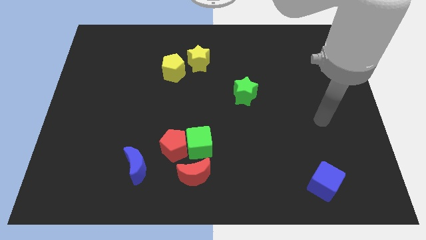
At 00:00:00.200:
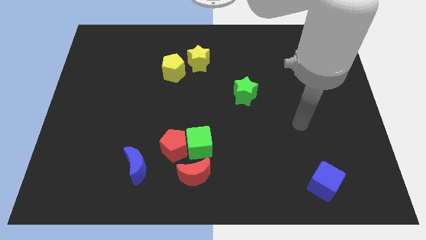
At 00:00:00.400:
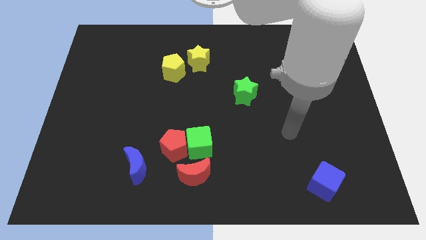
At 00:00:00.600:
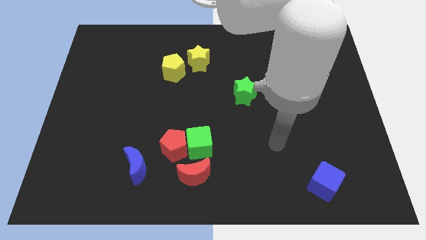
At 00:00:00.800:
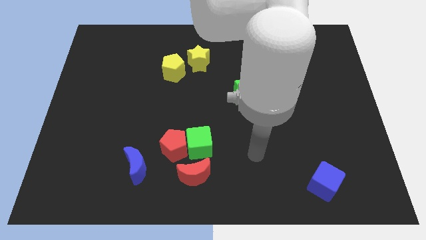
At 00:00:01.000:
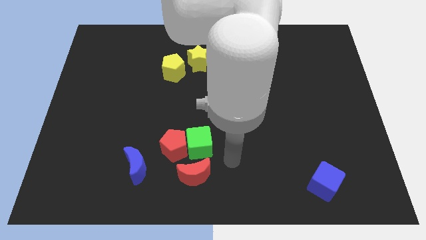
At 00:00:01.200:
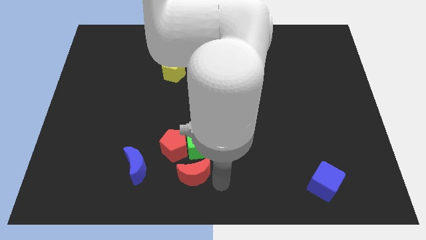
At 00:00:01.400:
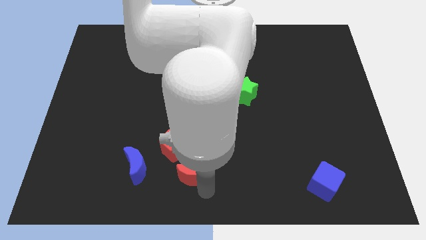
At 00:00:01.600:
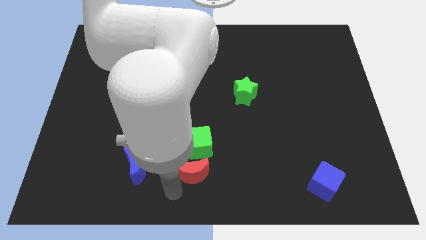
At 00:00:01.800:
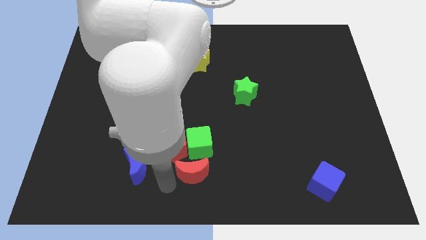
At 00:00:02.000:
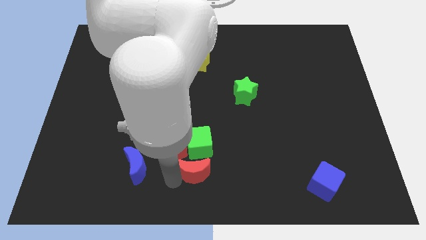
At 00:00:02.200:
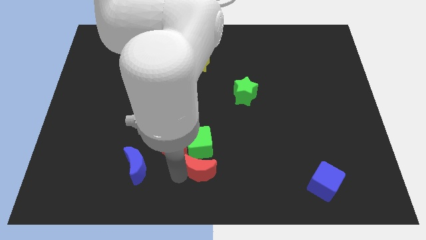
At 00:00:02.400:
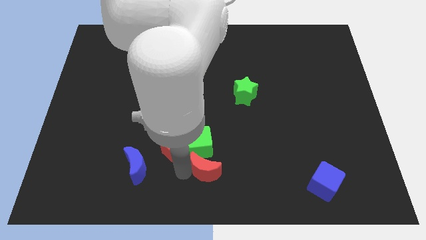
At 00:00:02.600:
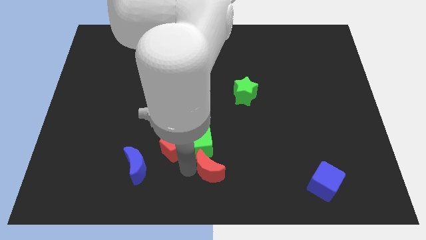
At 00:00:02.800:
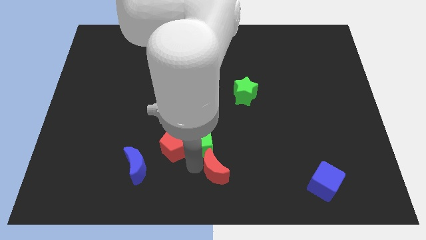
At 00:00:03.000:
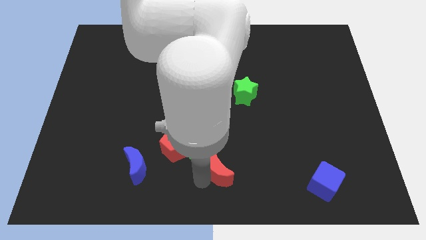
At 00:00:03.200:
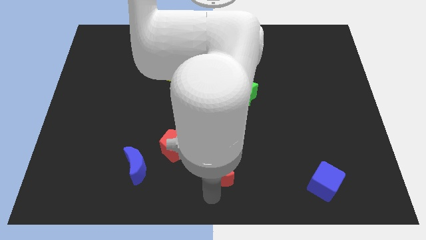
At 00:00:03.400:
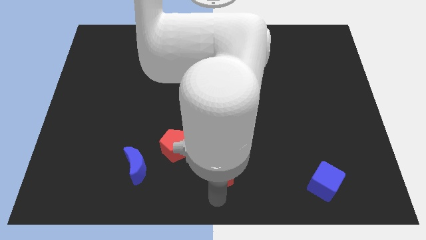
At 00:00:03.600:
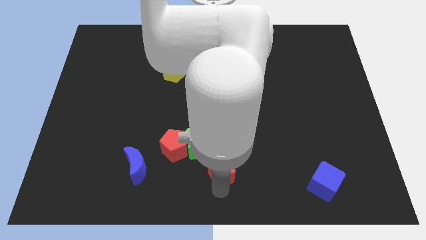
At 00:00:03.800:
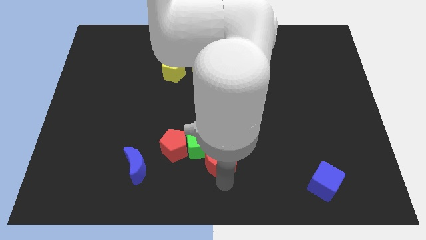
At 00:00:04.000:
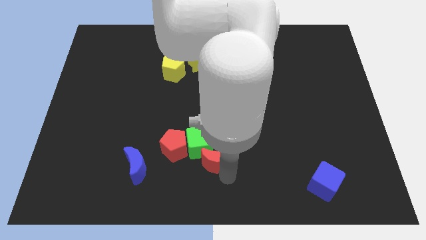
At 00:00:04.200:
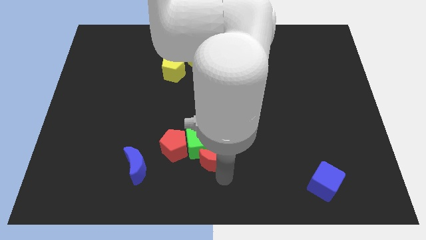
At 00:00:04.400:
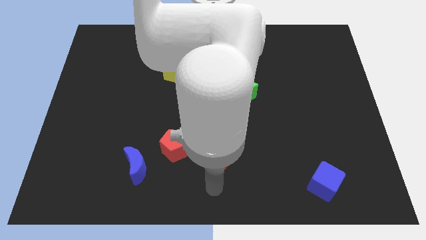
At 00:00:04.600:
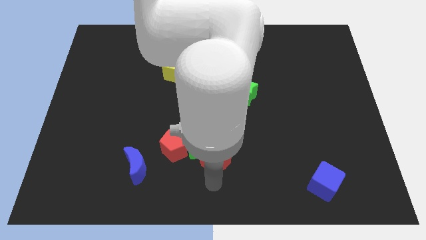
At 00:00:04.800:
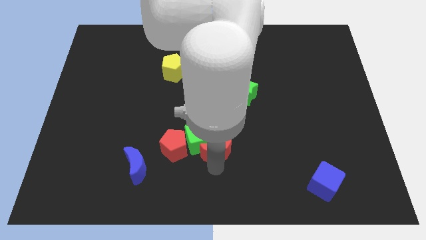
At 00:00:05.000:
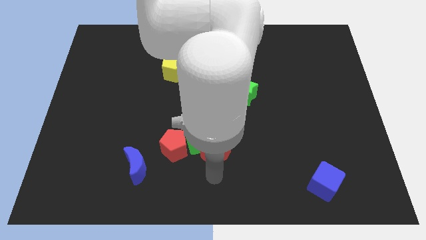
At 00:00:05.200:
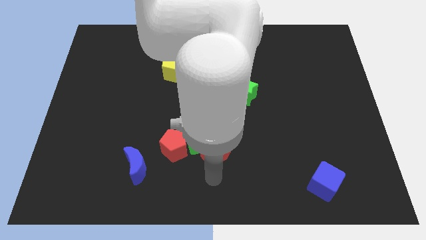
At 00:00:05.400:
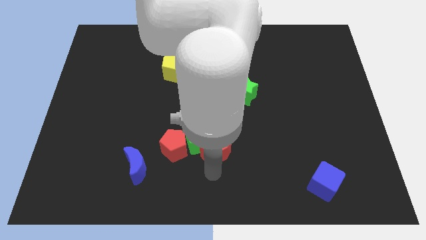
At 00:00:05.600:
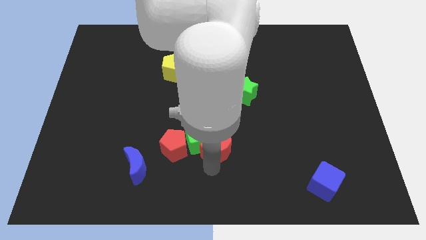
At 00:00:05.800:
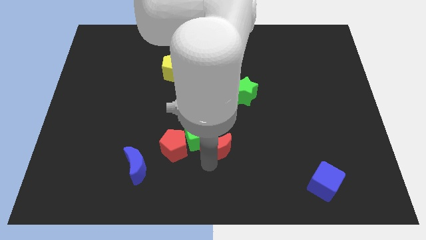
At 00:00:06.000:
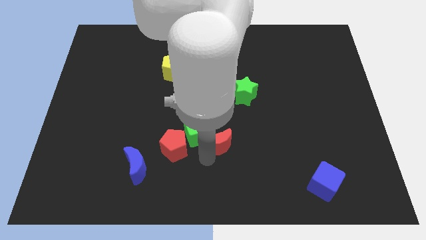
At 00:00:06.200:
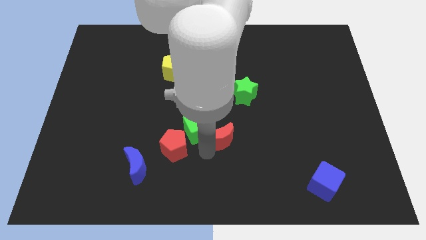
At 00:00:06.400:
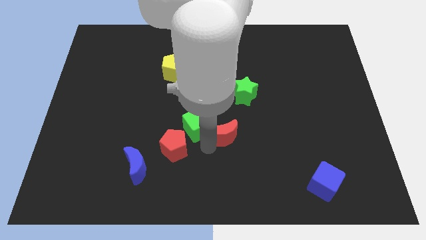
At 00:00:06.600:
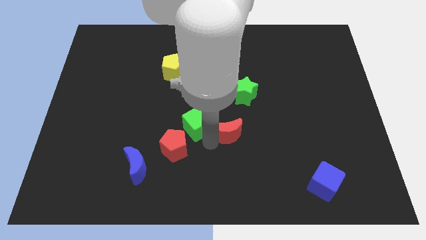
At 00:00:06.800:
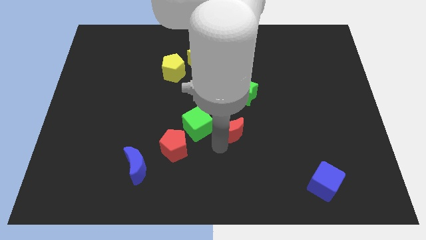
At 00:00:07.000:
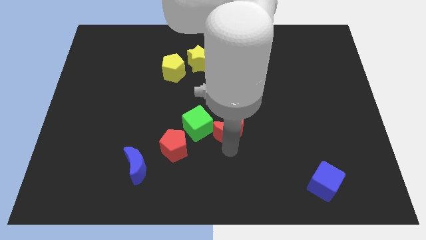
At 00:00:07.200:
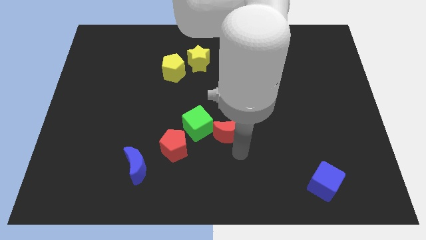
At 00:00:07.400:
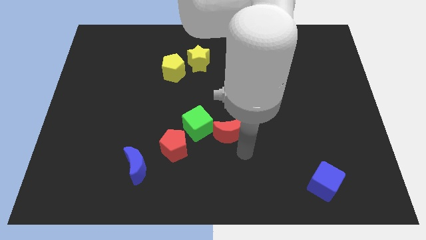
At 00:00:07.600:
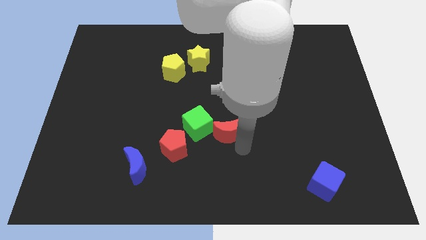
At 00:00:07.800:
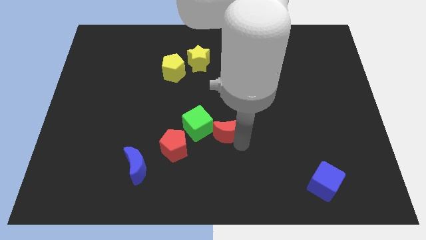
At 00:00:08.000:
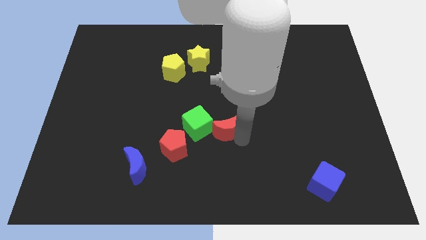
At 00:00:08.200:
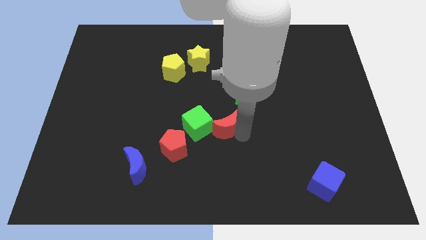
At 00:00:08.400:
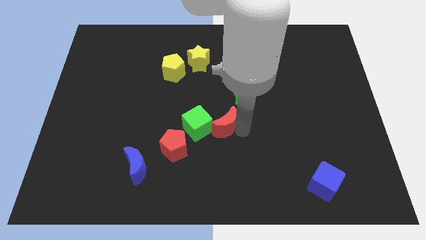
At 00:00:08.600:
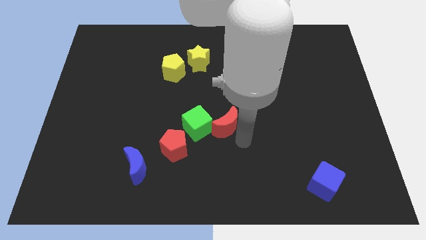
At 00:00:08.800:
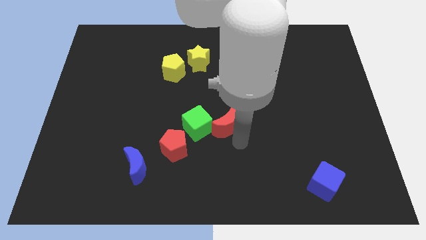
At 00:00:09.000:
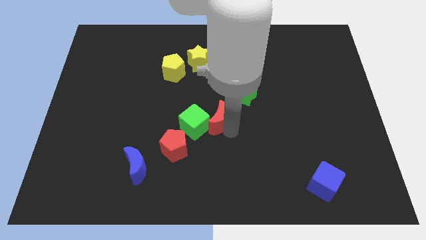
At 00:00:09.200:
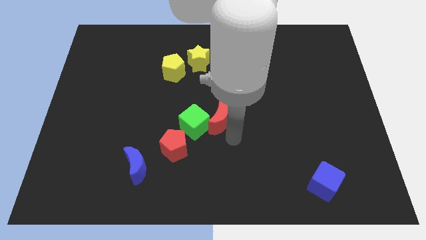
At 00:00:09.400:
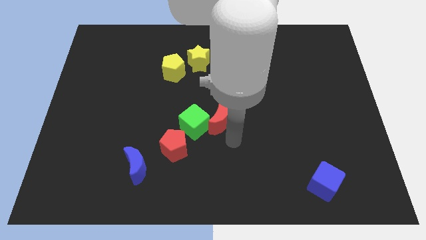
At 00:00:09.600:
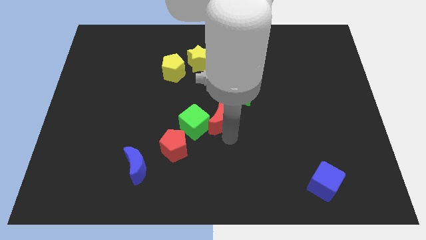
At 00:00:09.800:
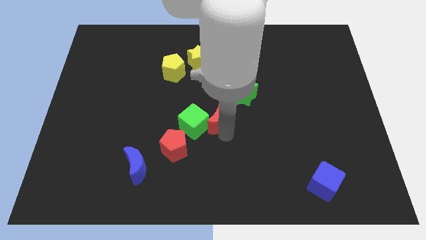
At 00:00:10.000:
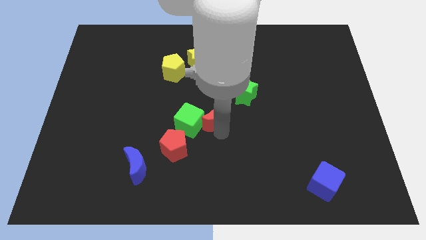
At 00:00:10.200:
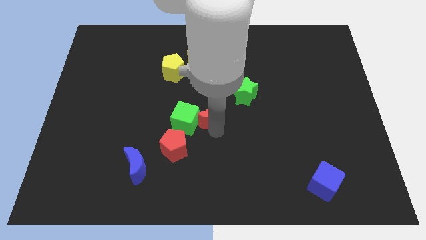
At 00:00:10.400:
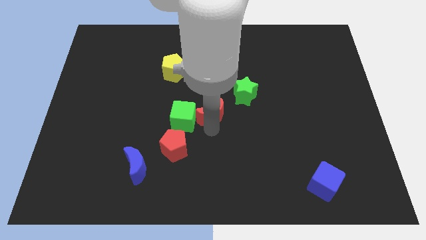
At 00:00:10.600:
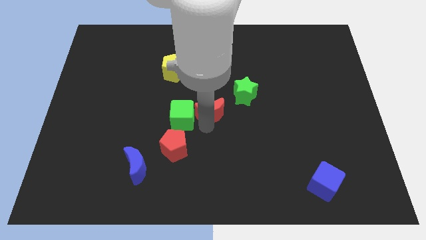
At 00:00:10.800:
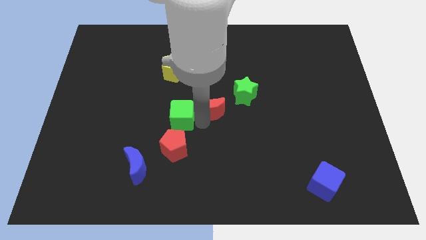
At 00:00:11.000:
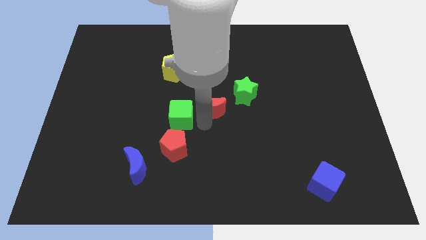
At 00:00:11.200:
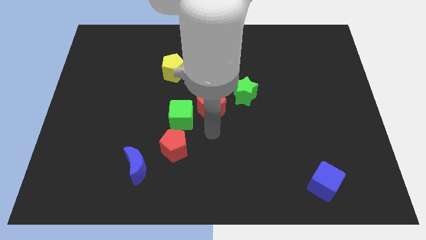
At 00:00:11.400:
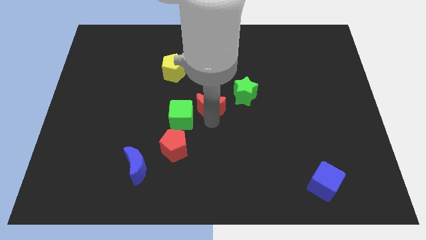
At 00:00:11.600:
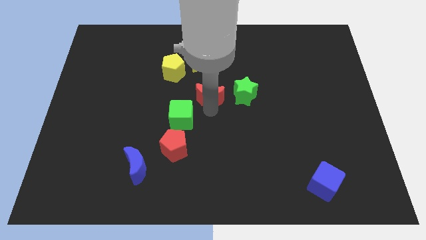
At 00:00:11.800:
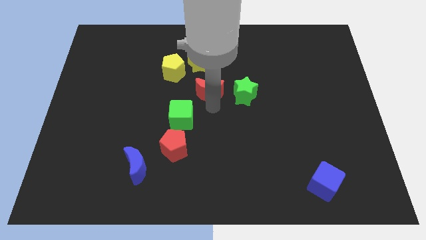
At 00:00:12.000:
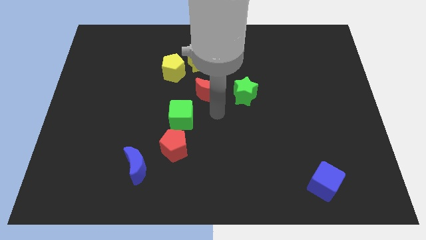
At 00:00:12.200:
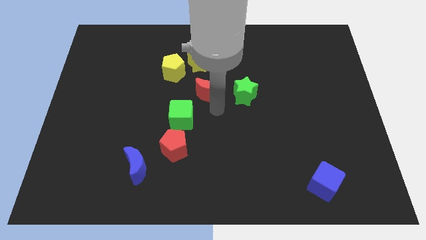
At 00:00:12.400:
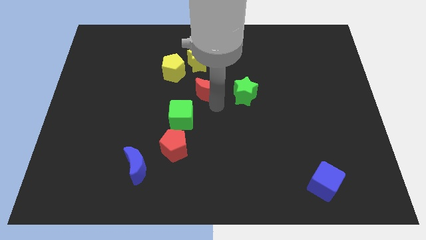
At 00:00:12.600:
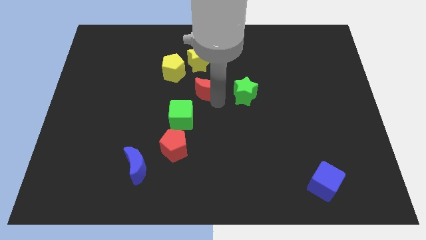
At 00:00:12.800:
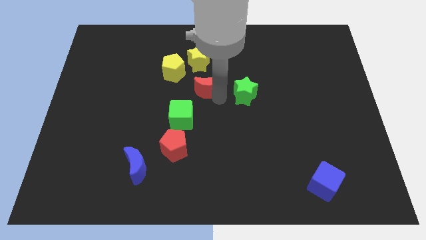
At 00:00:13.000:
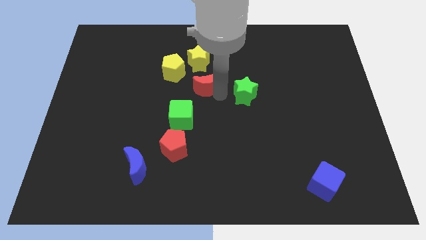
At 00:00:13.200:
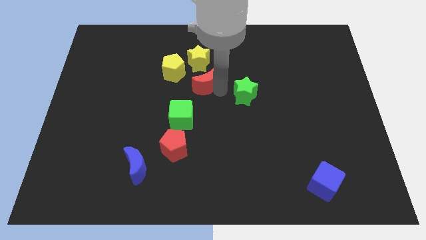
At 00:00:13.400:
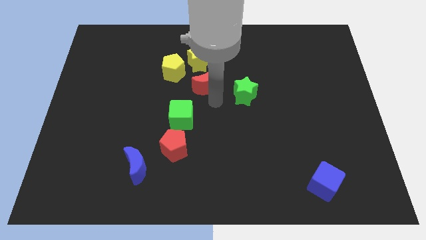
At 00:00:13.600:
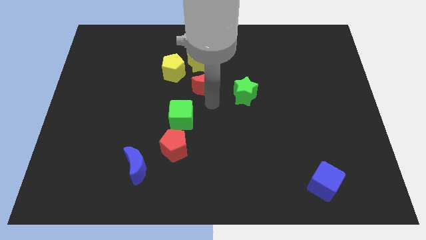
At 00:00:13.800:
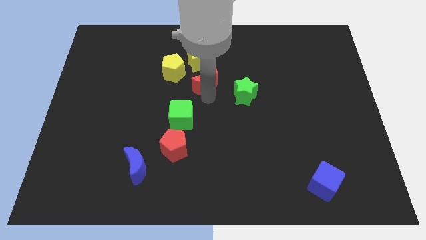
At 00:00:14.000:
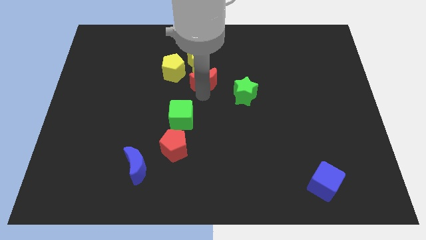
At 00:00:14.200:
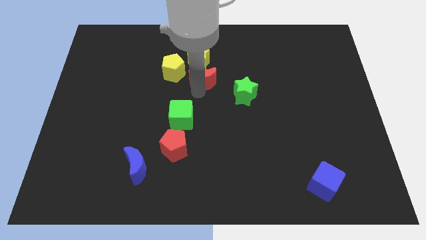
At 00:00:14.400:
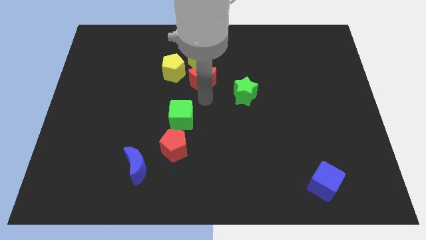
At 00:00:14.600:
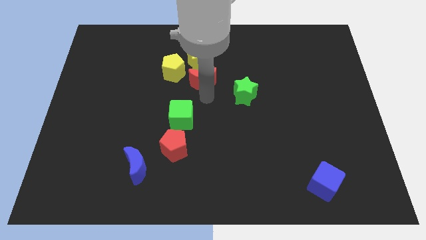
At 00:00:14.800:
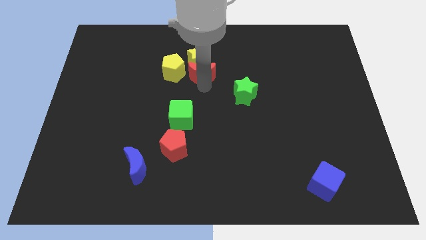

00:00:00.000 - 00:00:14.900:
put the red moon to the yellow star
